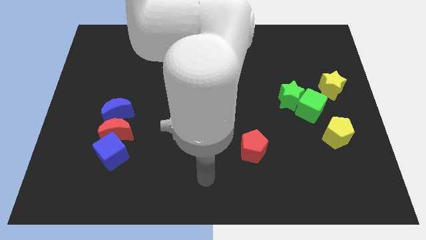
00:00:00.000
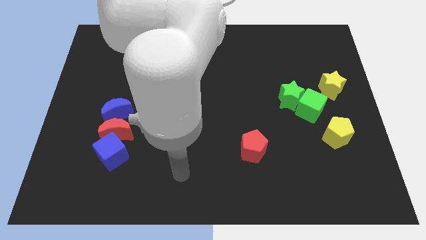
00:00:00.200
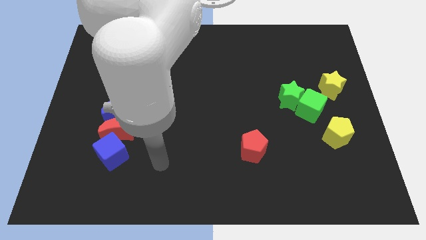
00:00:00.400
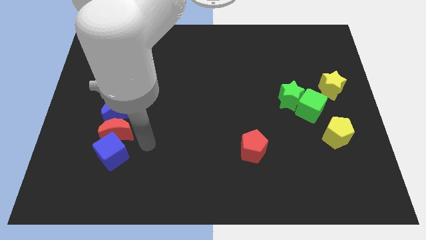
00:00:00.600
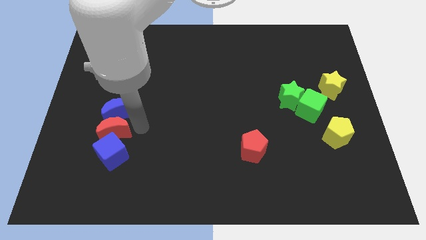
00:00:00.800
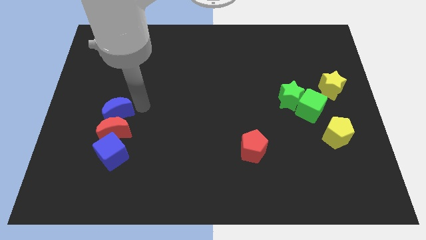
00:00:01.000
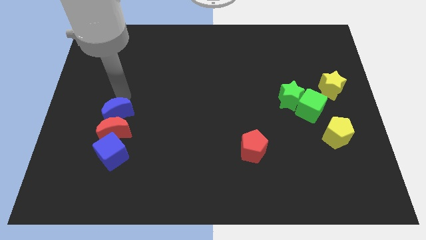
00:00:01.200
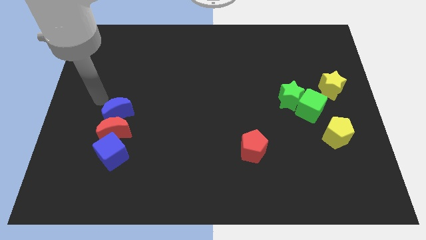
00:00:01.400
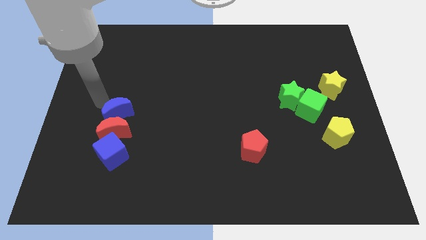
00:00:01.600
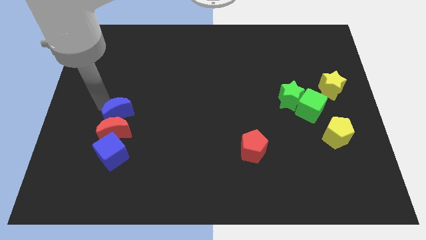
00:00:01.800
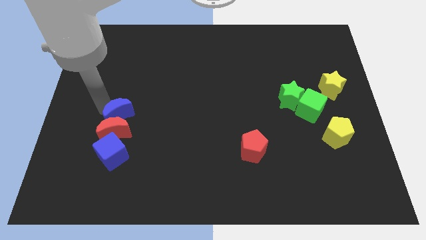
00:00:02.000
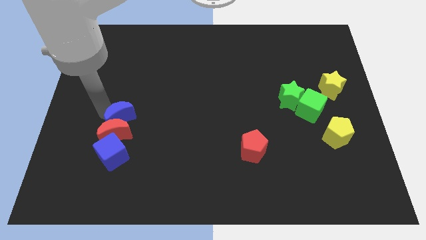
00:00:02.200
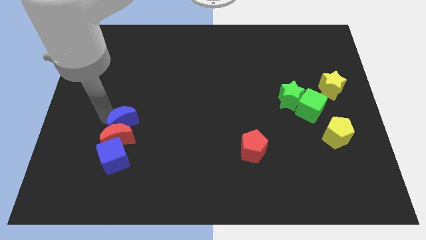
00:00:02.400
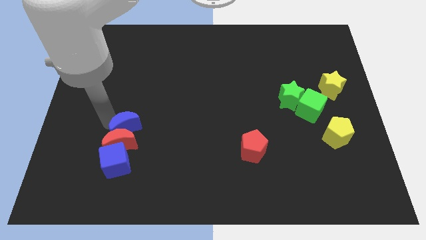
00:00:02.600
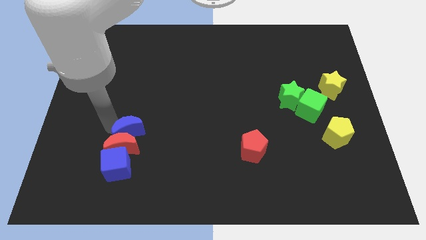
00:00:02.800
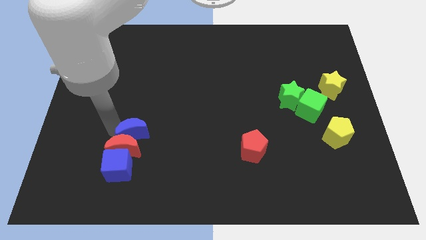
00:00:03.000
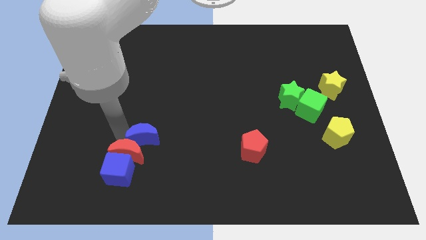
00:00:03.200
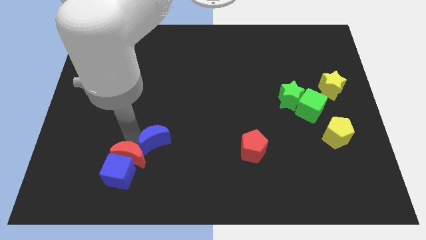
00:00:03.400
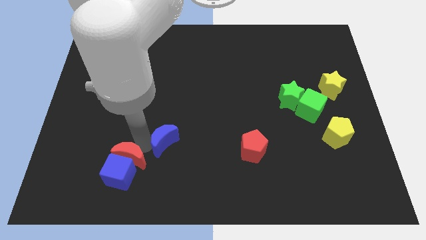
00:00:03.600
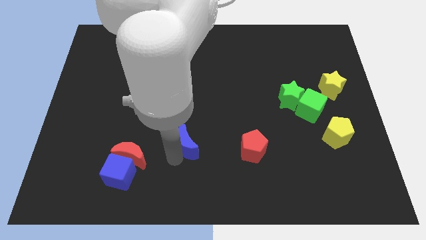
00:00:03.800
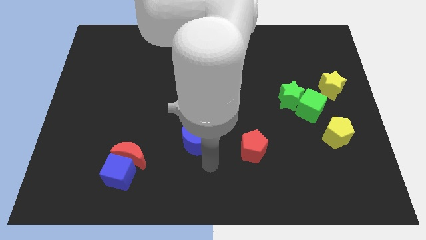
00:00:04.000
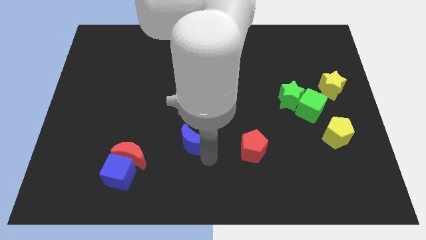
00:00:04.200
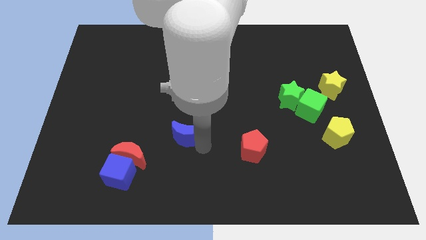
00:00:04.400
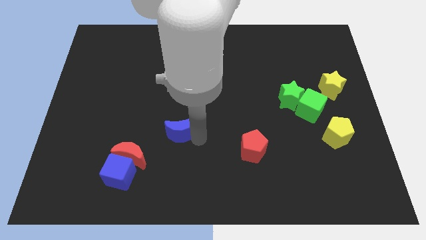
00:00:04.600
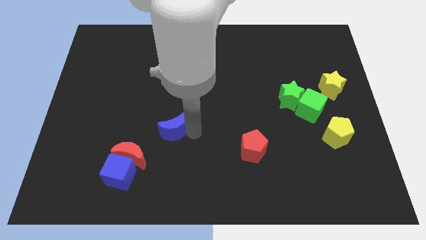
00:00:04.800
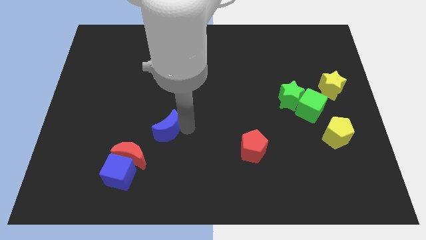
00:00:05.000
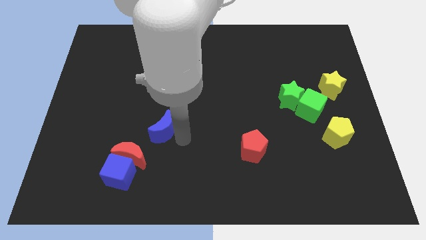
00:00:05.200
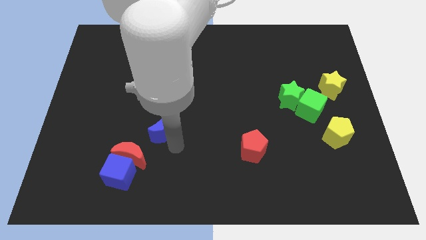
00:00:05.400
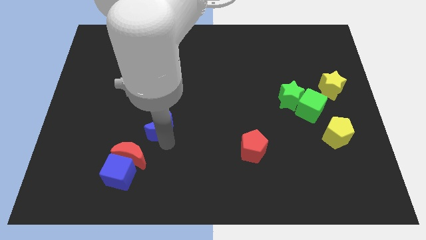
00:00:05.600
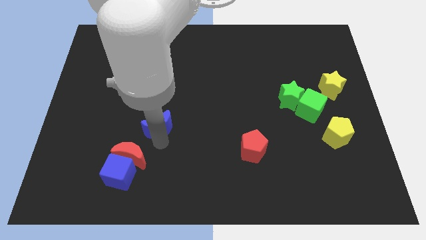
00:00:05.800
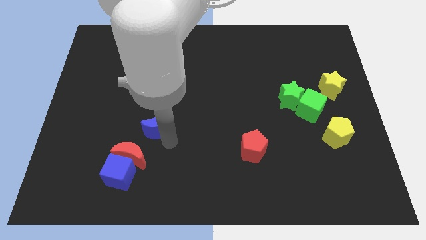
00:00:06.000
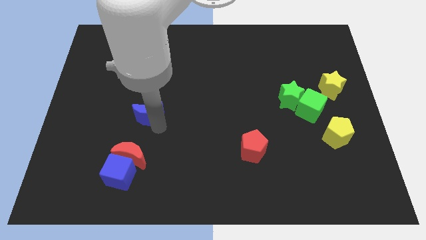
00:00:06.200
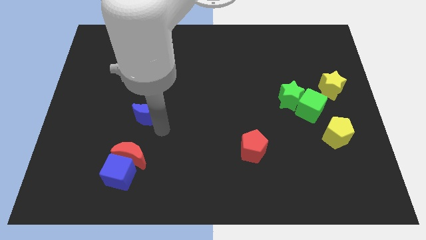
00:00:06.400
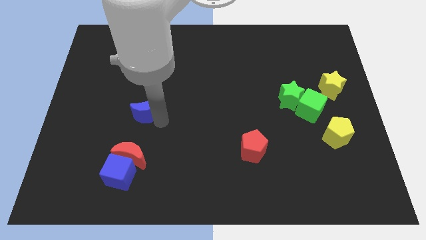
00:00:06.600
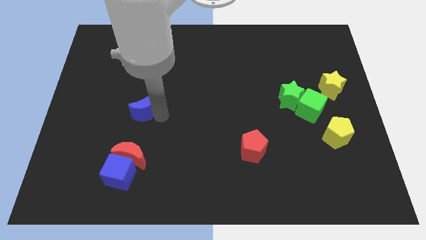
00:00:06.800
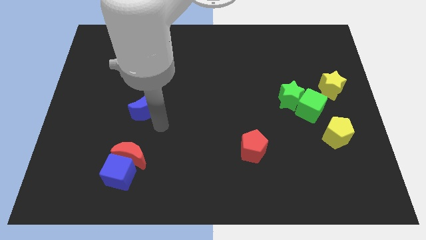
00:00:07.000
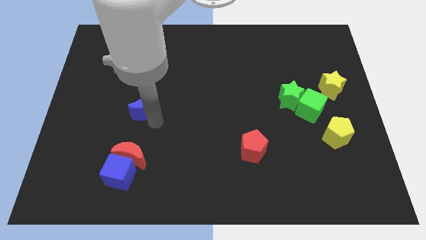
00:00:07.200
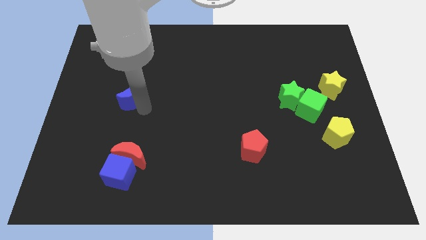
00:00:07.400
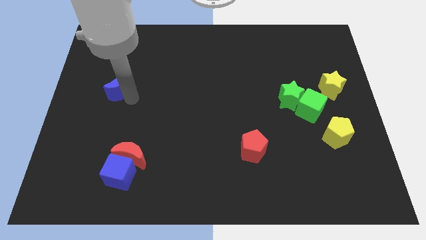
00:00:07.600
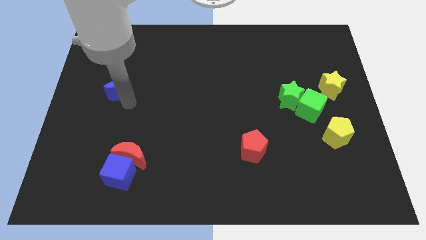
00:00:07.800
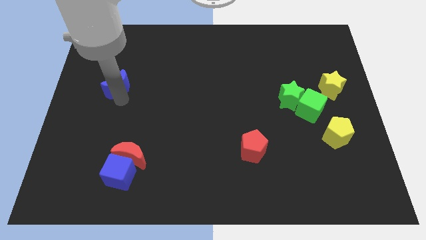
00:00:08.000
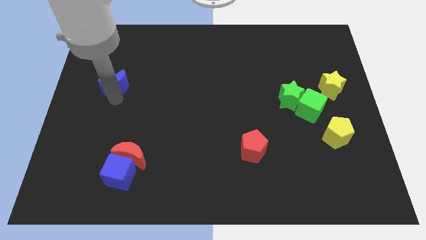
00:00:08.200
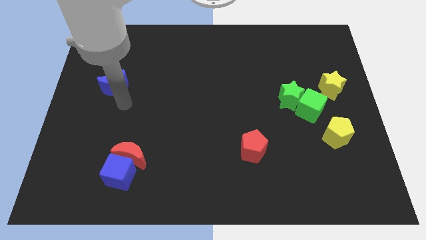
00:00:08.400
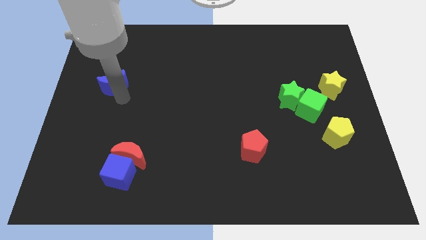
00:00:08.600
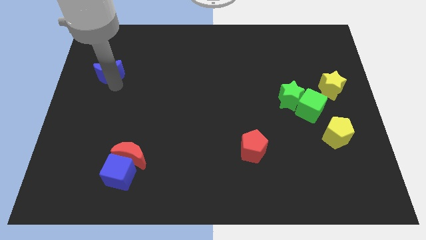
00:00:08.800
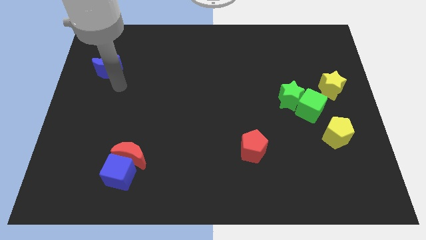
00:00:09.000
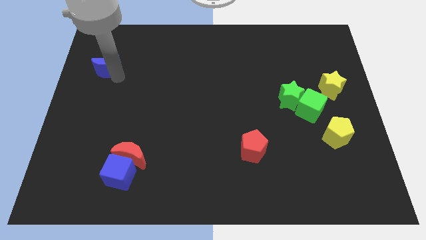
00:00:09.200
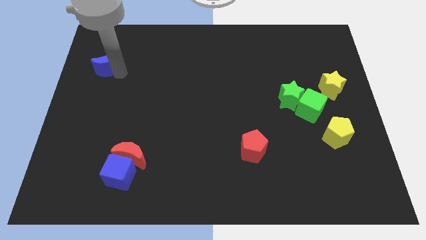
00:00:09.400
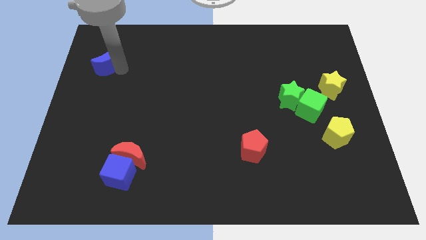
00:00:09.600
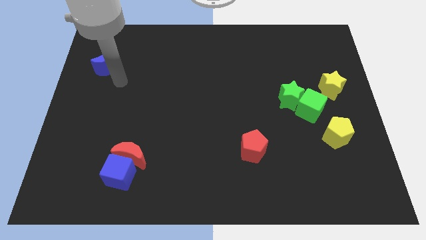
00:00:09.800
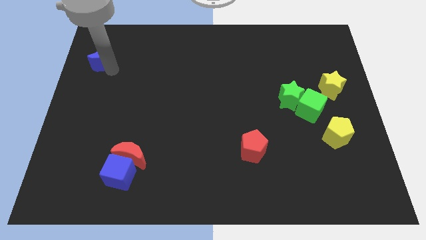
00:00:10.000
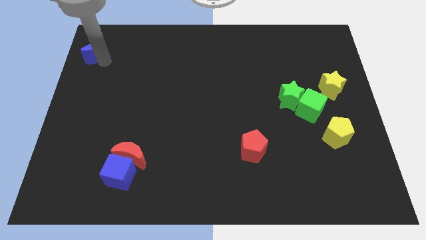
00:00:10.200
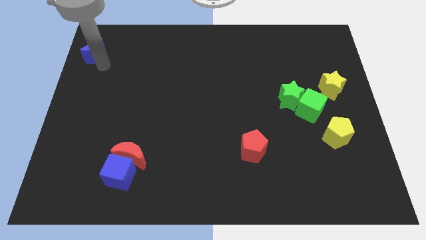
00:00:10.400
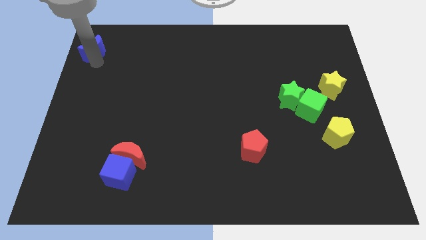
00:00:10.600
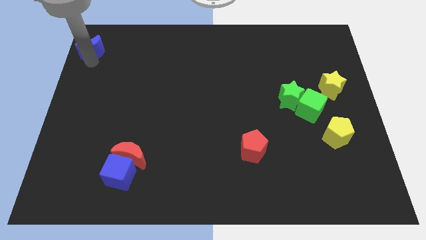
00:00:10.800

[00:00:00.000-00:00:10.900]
push the blue moon to the top left
